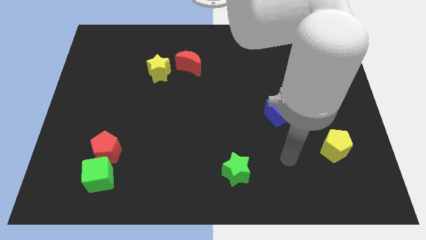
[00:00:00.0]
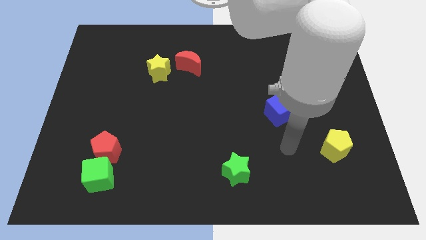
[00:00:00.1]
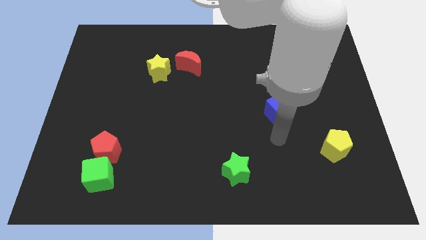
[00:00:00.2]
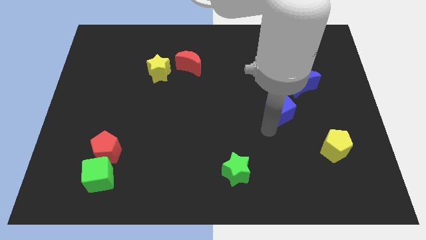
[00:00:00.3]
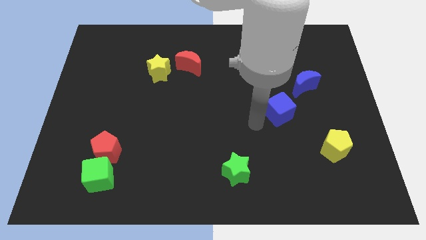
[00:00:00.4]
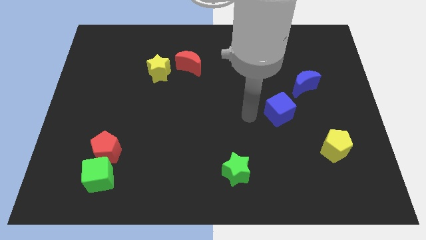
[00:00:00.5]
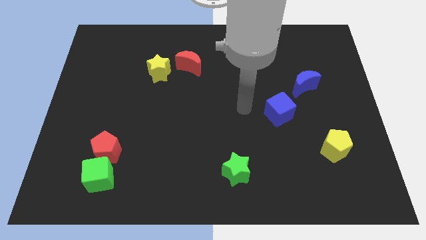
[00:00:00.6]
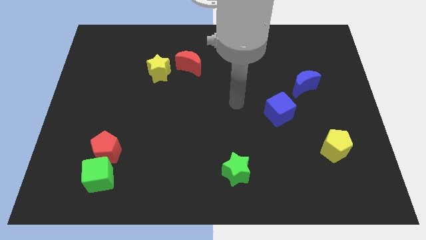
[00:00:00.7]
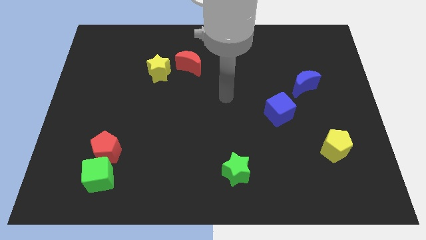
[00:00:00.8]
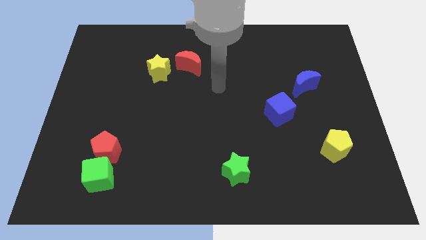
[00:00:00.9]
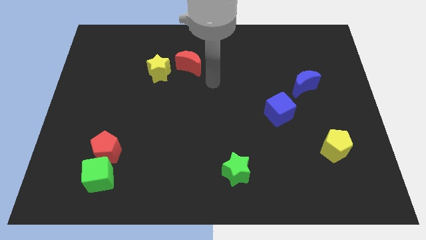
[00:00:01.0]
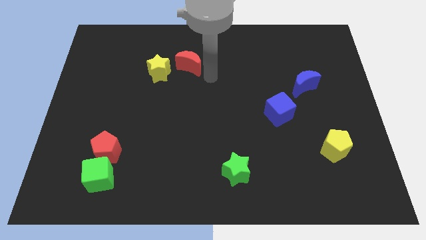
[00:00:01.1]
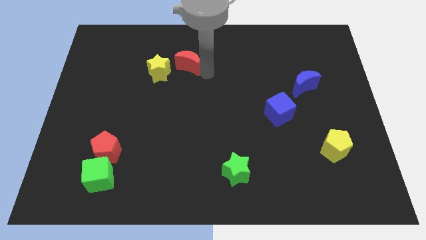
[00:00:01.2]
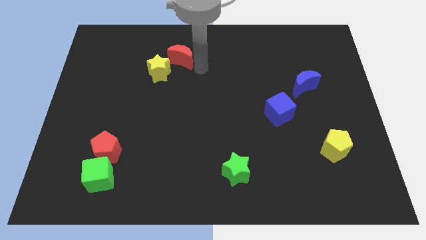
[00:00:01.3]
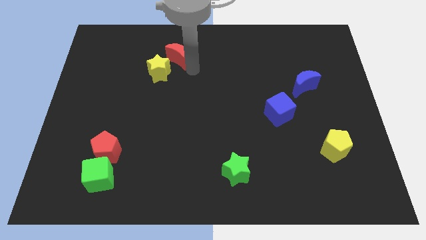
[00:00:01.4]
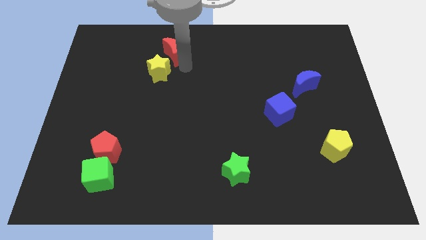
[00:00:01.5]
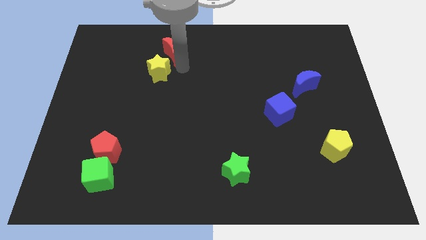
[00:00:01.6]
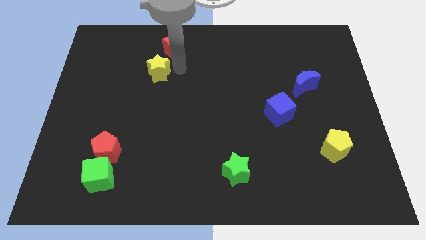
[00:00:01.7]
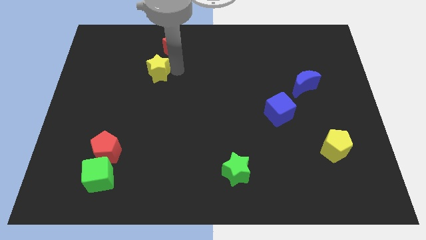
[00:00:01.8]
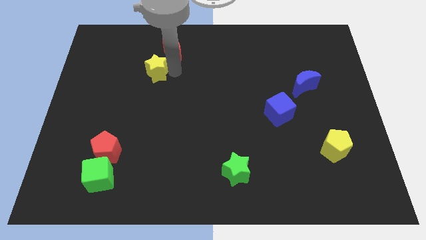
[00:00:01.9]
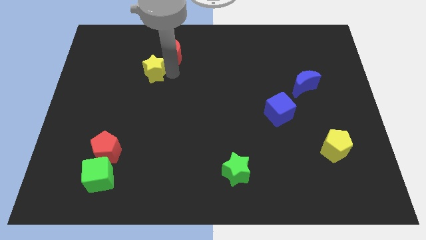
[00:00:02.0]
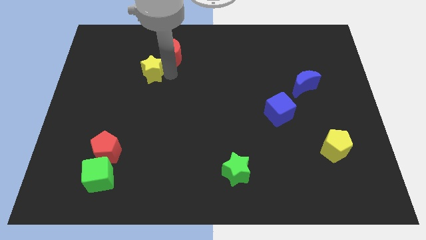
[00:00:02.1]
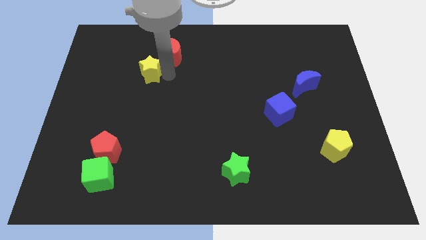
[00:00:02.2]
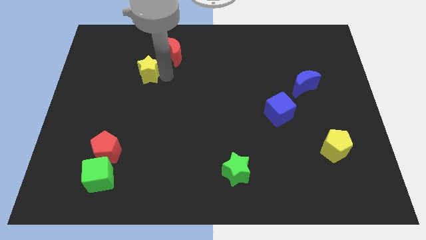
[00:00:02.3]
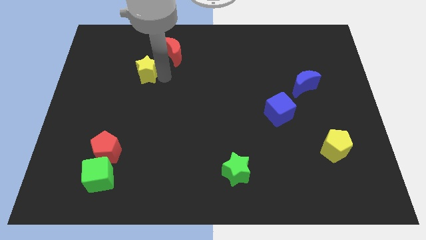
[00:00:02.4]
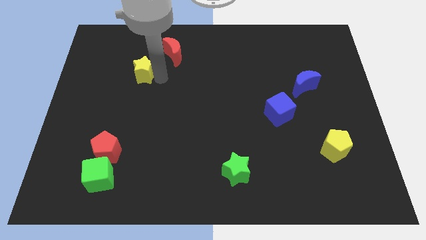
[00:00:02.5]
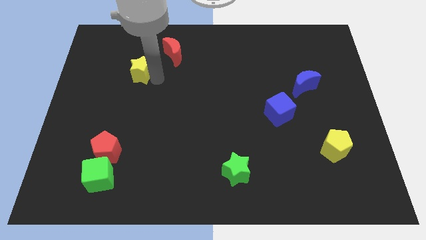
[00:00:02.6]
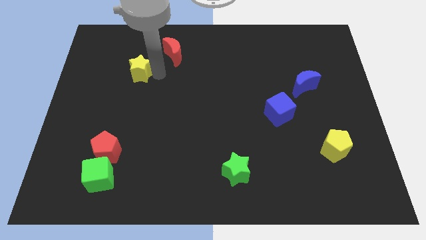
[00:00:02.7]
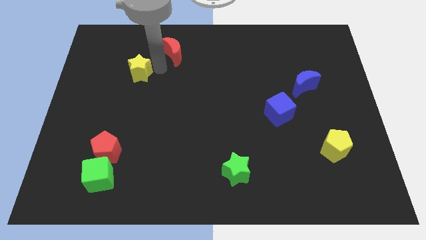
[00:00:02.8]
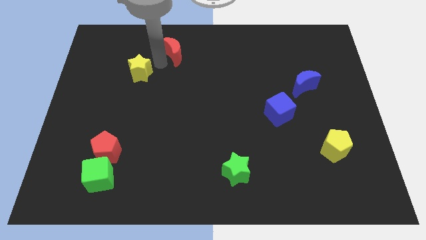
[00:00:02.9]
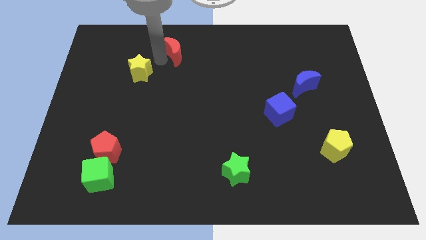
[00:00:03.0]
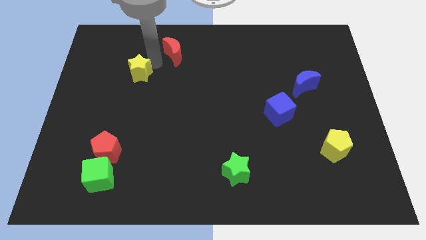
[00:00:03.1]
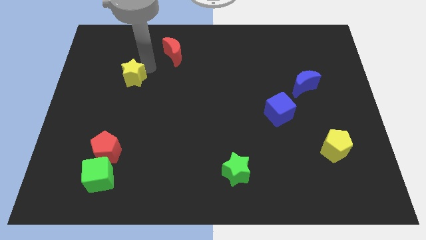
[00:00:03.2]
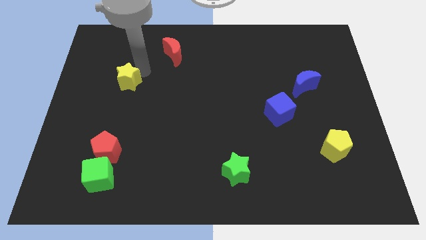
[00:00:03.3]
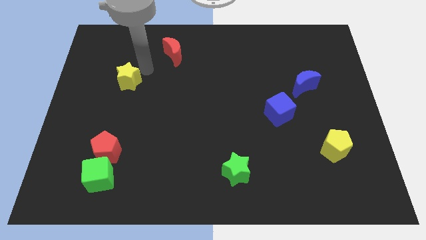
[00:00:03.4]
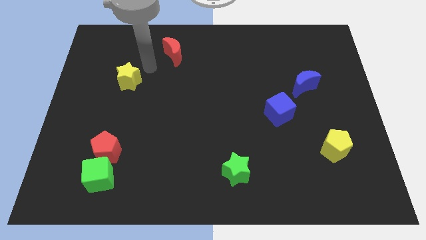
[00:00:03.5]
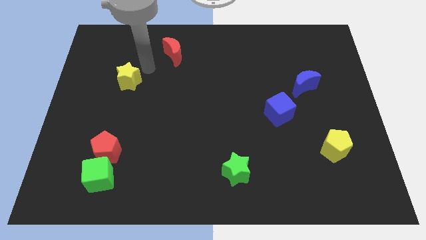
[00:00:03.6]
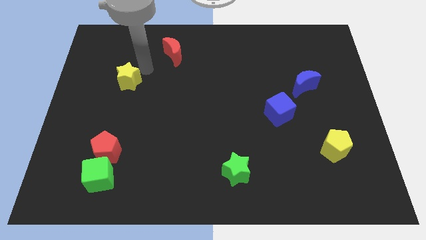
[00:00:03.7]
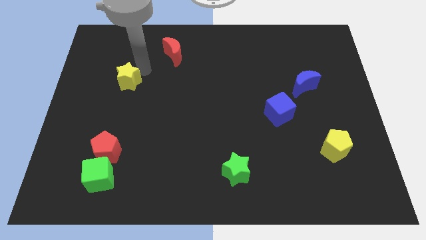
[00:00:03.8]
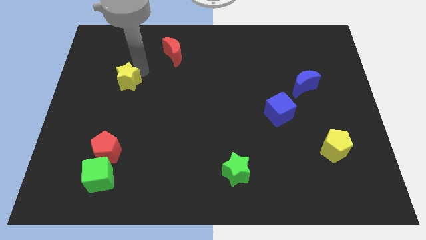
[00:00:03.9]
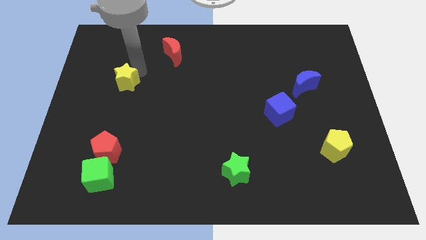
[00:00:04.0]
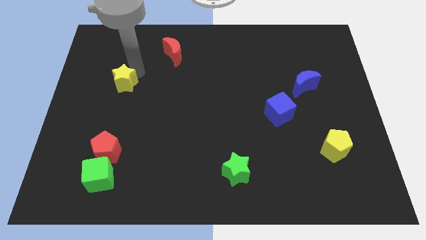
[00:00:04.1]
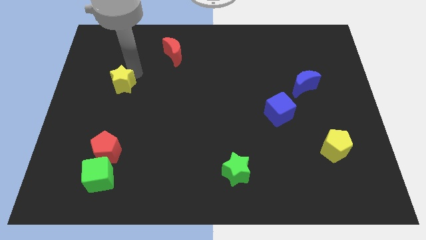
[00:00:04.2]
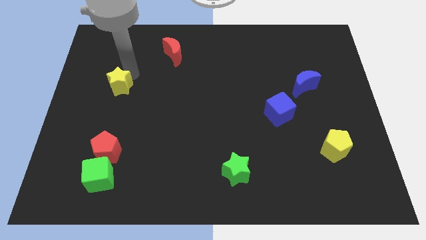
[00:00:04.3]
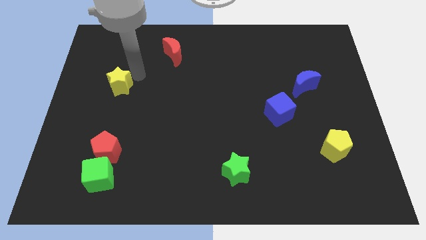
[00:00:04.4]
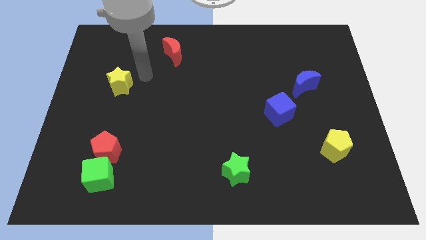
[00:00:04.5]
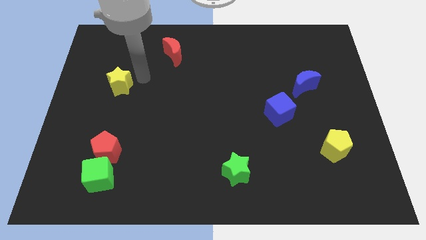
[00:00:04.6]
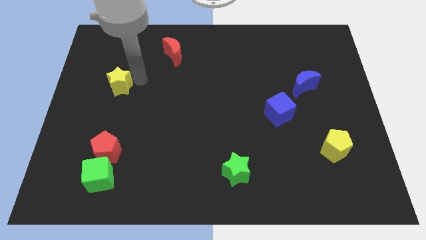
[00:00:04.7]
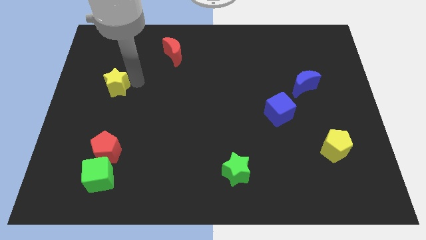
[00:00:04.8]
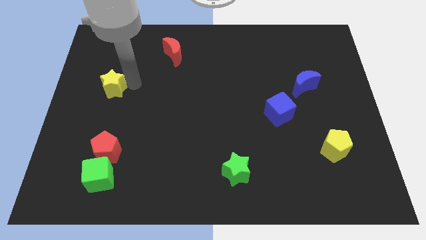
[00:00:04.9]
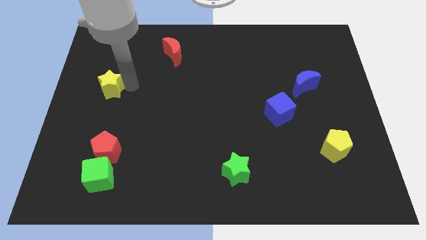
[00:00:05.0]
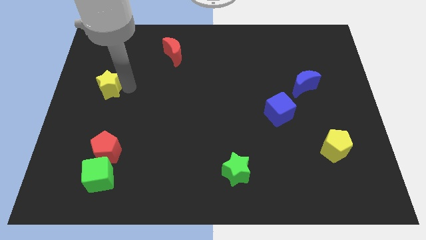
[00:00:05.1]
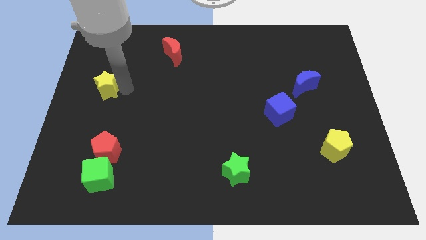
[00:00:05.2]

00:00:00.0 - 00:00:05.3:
move the yellow star to the center left

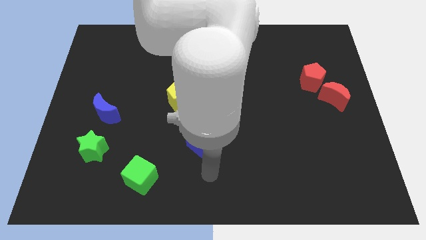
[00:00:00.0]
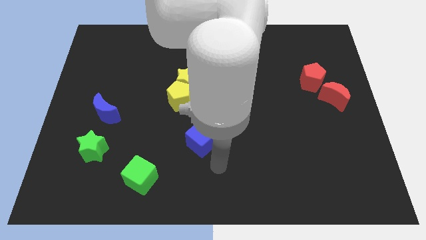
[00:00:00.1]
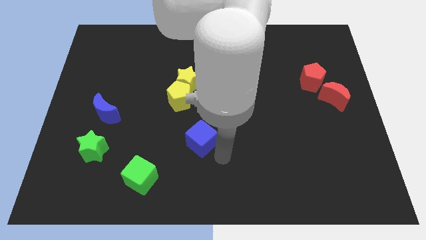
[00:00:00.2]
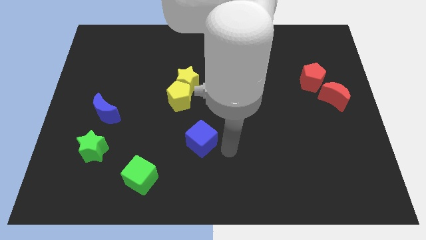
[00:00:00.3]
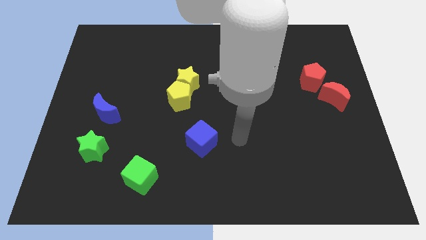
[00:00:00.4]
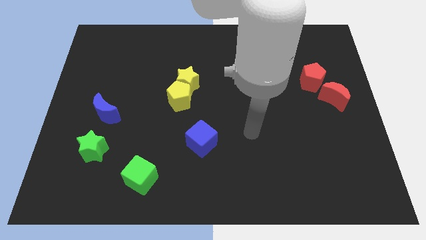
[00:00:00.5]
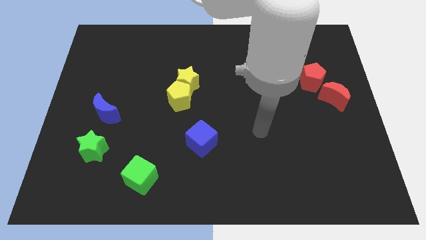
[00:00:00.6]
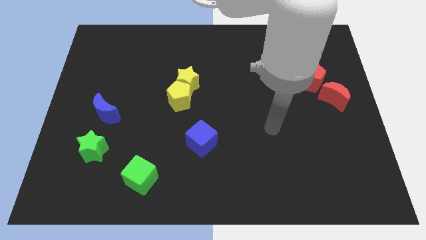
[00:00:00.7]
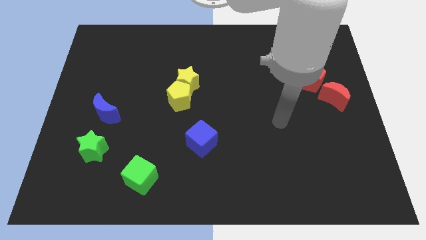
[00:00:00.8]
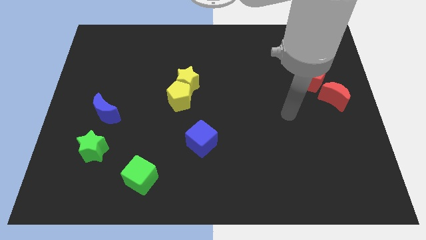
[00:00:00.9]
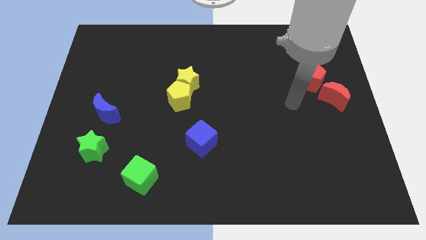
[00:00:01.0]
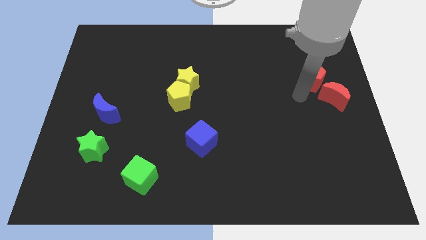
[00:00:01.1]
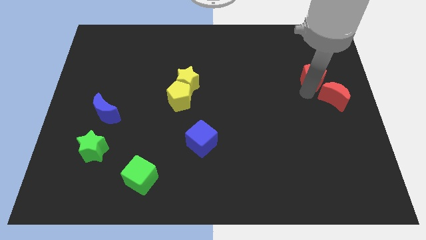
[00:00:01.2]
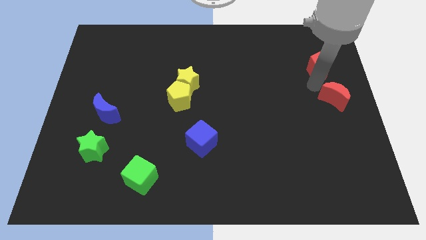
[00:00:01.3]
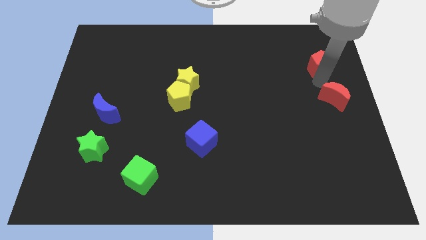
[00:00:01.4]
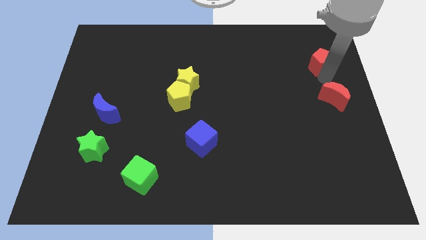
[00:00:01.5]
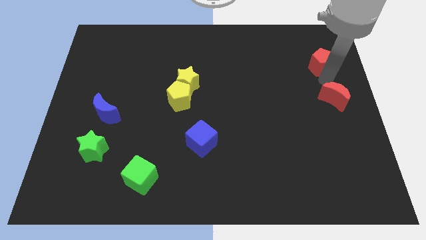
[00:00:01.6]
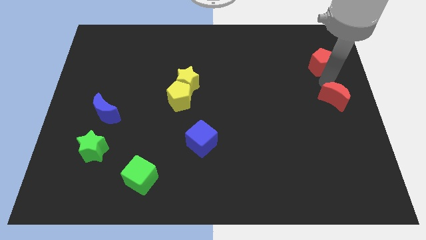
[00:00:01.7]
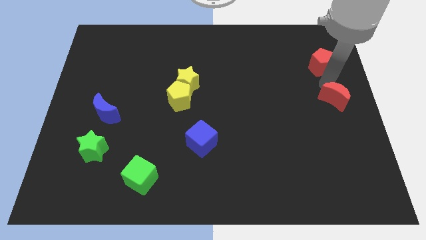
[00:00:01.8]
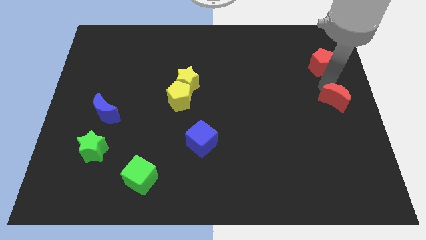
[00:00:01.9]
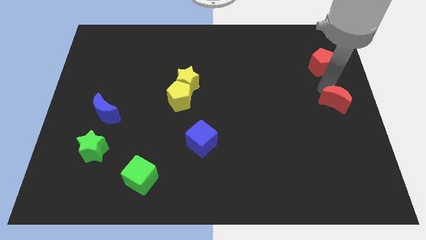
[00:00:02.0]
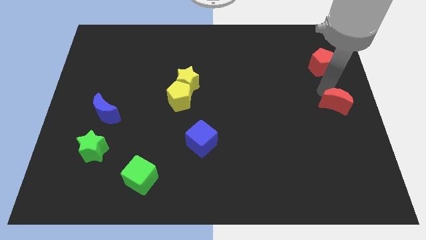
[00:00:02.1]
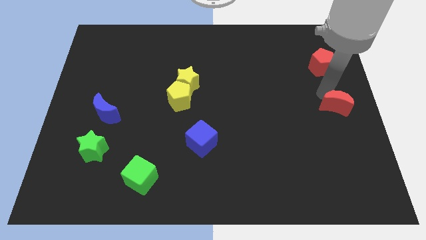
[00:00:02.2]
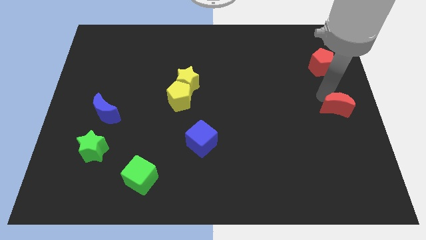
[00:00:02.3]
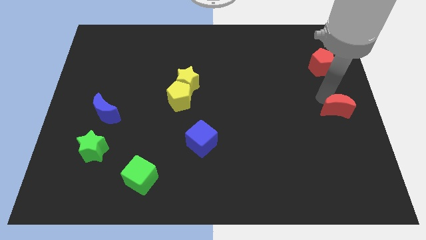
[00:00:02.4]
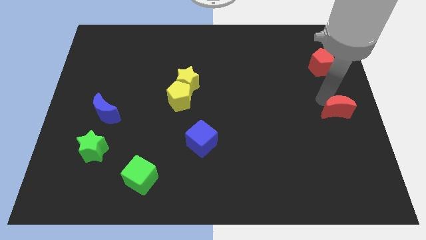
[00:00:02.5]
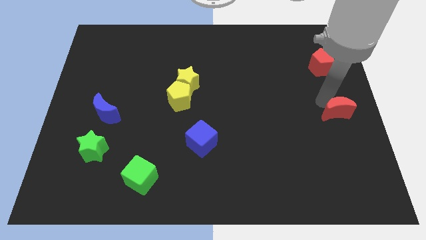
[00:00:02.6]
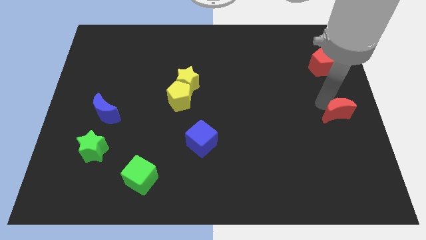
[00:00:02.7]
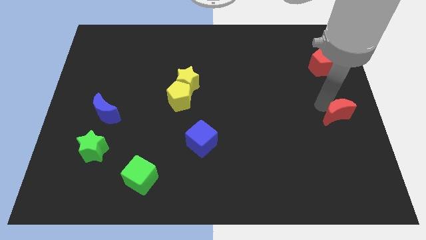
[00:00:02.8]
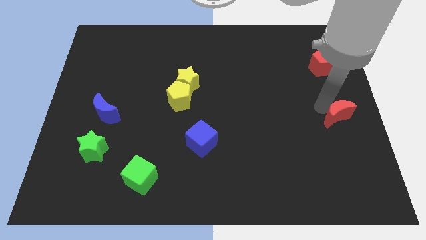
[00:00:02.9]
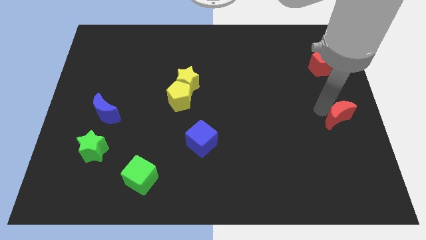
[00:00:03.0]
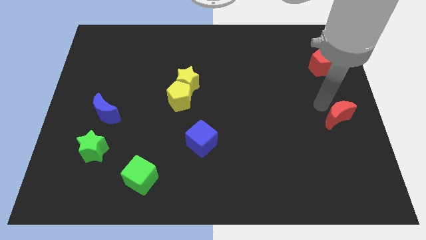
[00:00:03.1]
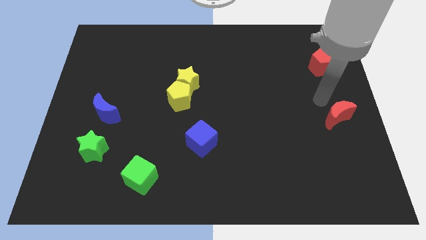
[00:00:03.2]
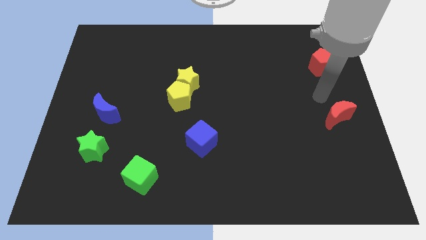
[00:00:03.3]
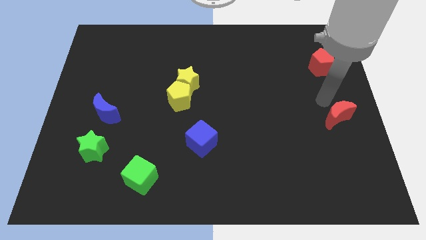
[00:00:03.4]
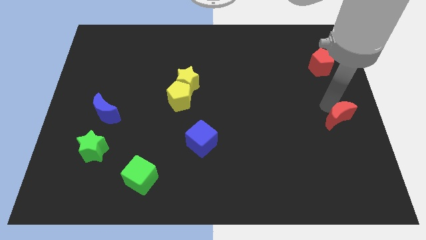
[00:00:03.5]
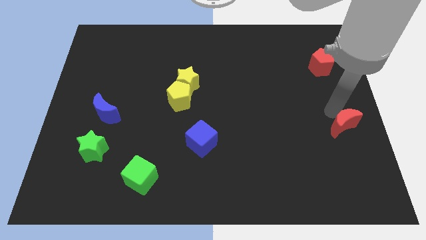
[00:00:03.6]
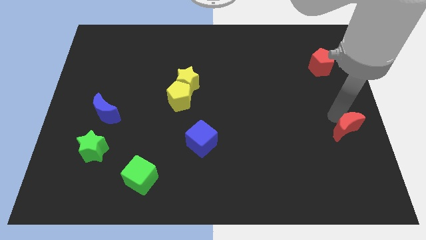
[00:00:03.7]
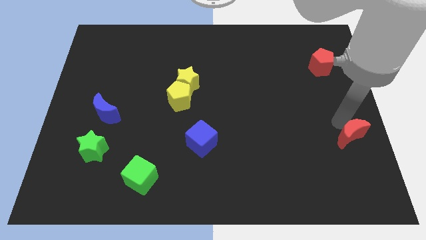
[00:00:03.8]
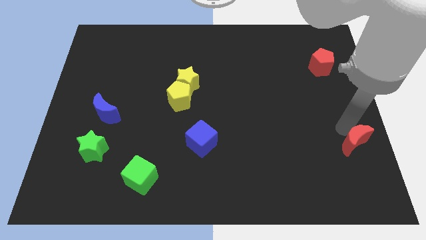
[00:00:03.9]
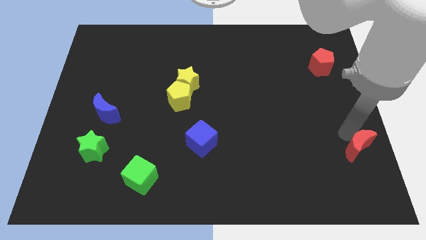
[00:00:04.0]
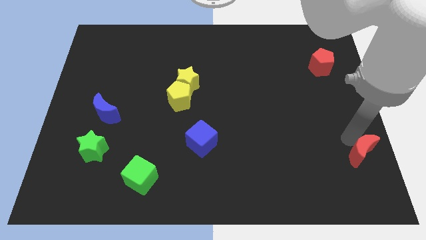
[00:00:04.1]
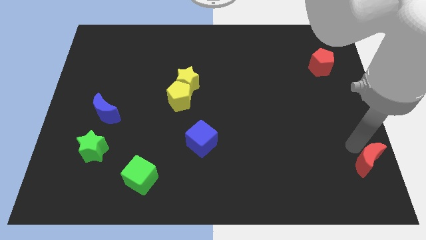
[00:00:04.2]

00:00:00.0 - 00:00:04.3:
push the red moon to the bottom right corner
